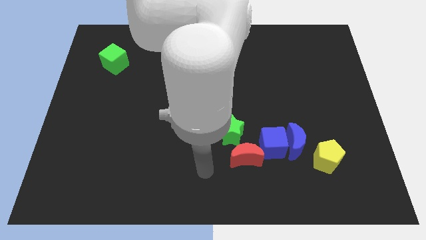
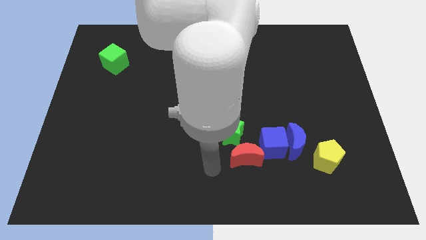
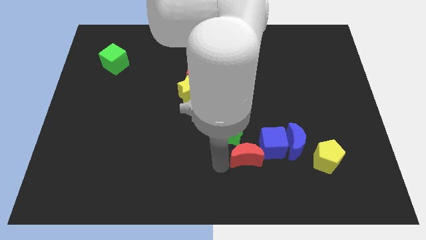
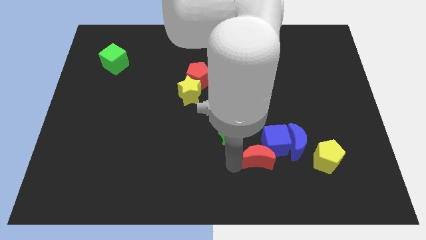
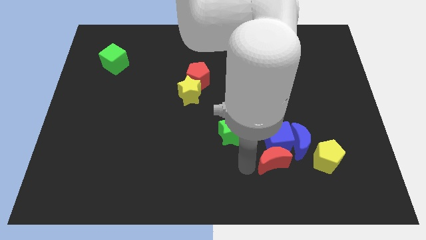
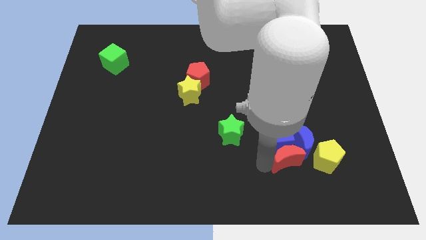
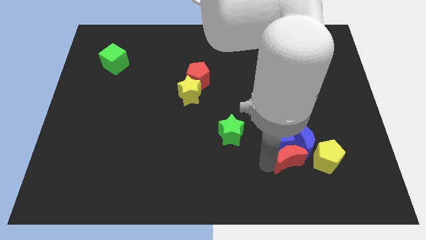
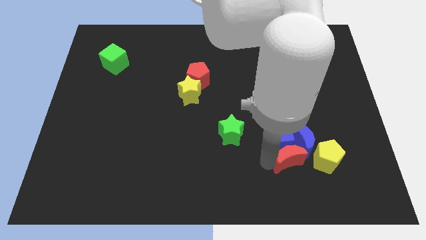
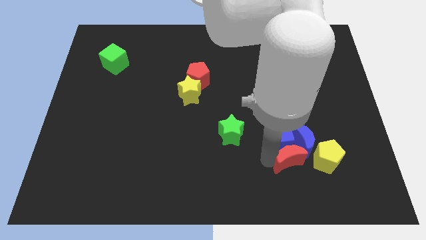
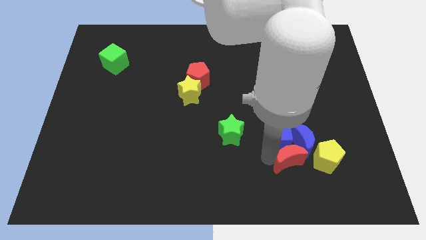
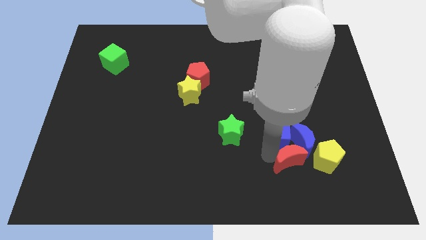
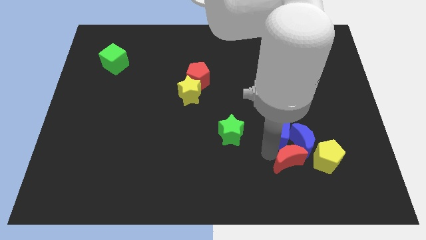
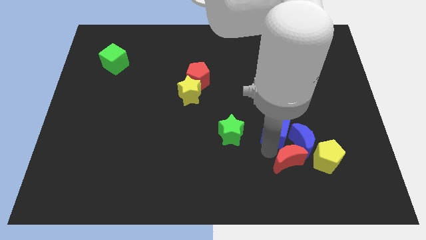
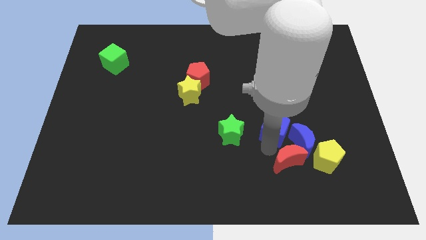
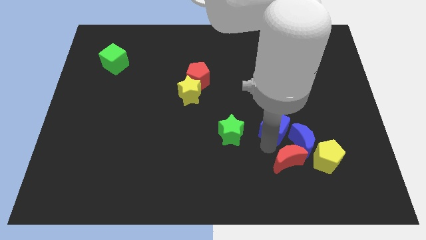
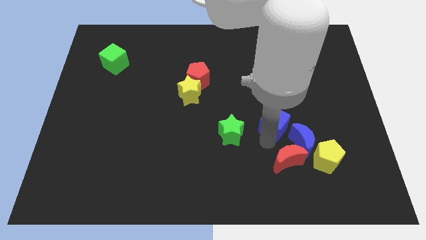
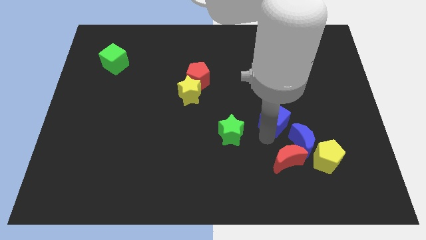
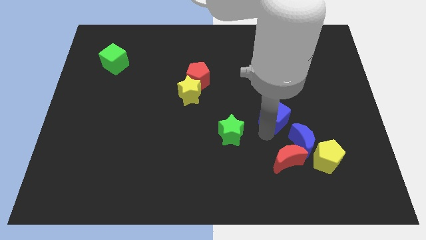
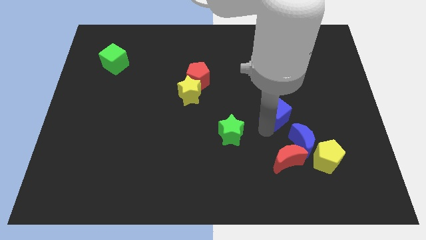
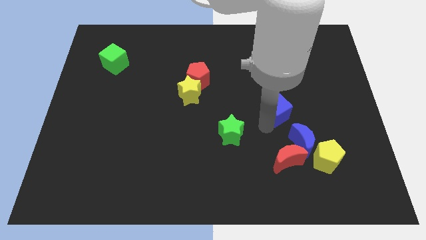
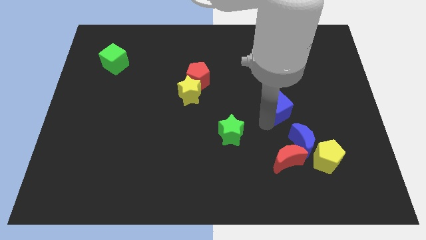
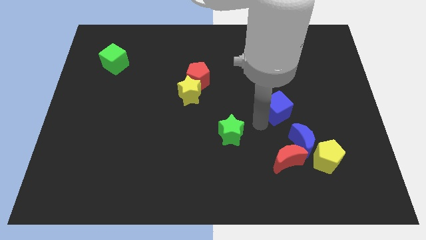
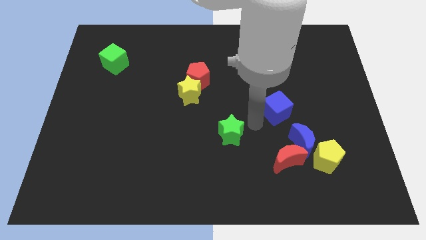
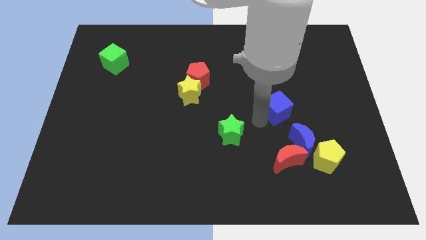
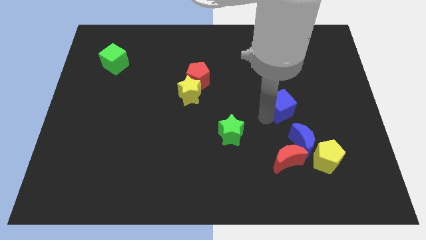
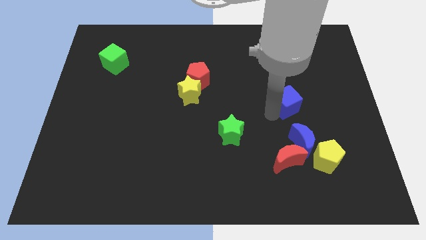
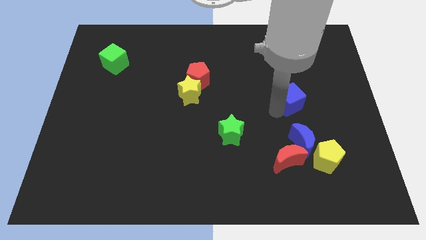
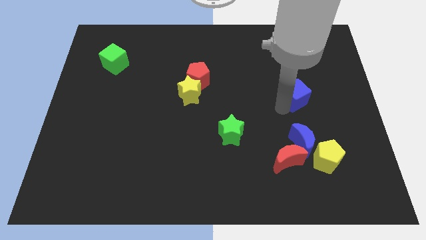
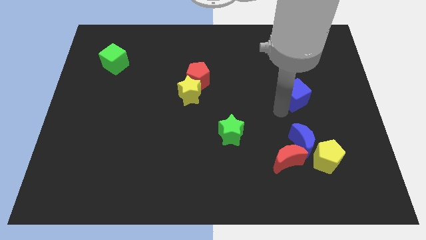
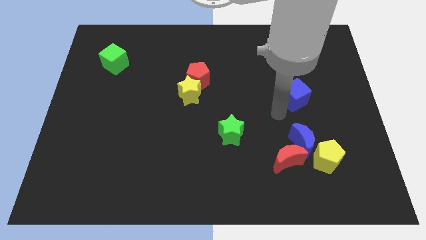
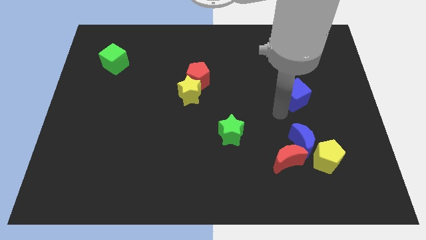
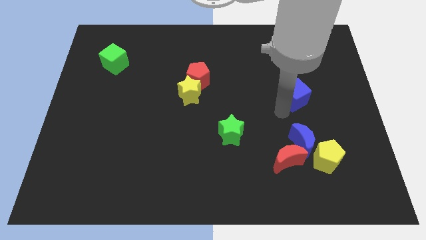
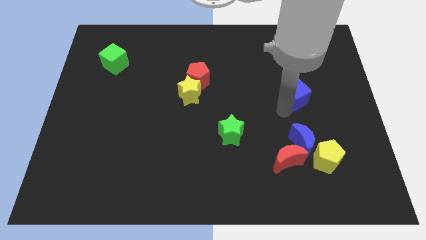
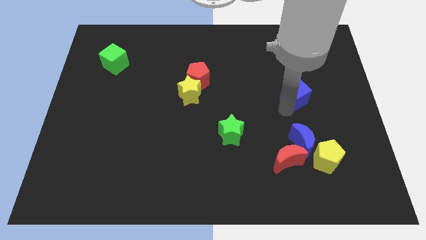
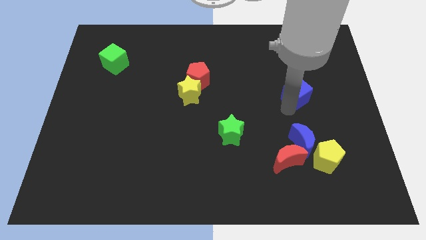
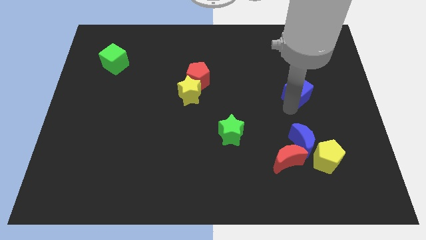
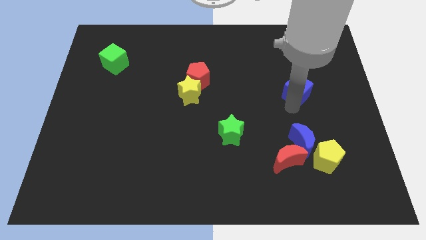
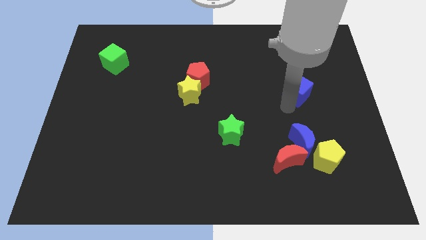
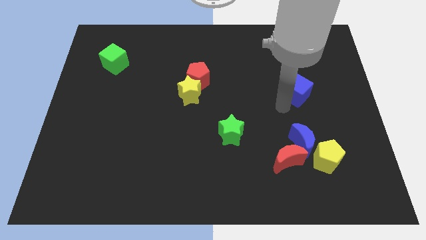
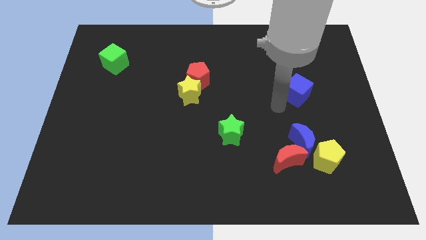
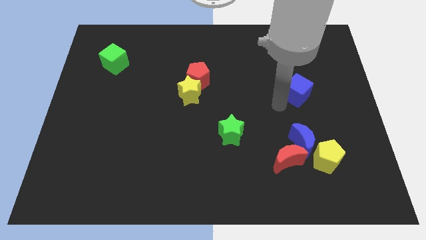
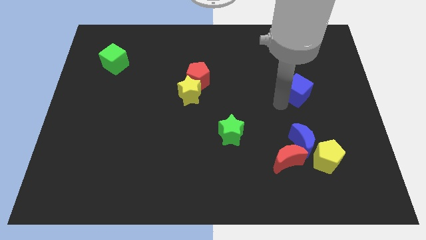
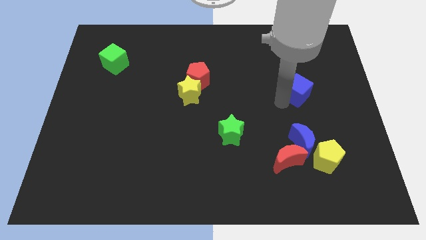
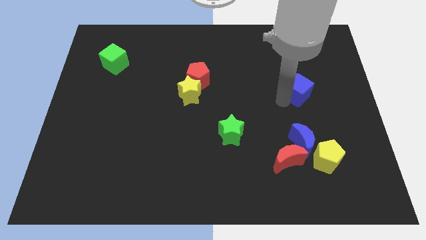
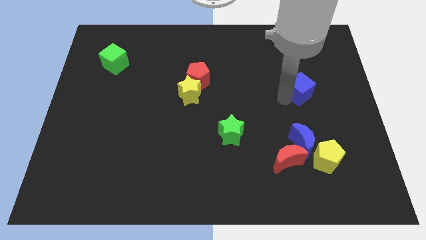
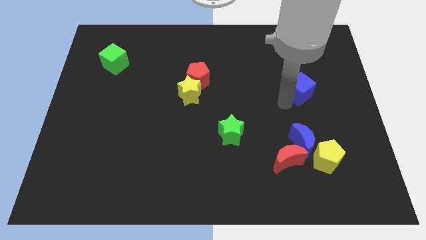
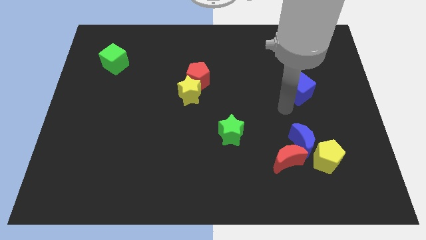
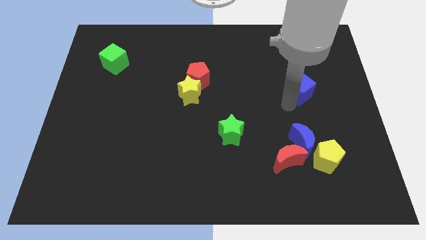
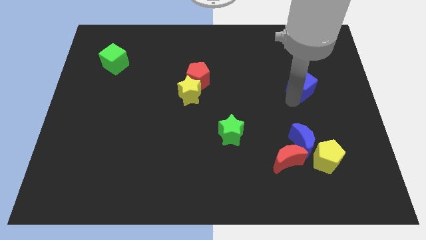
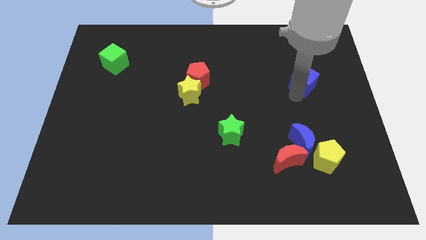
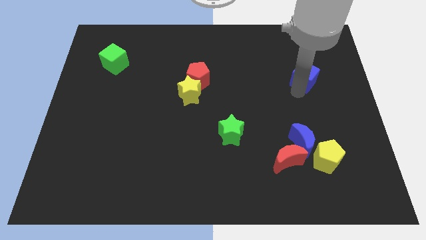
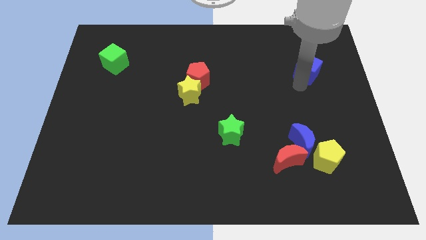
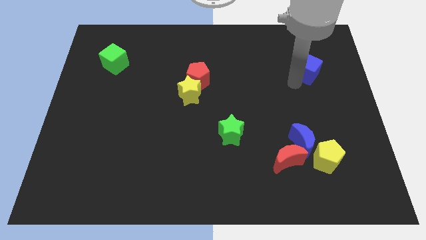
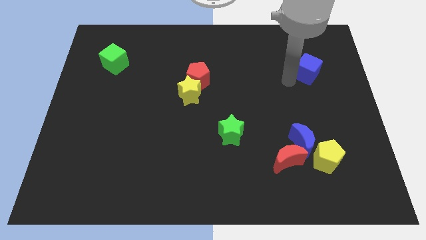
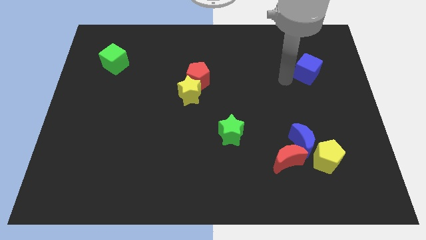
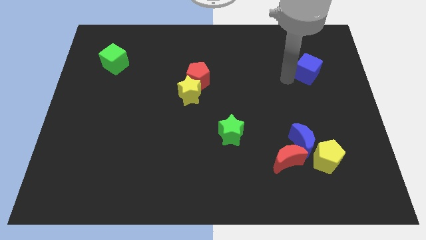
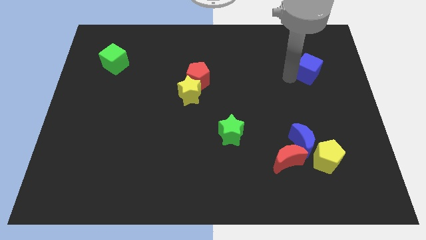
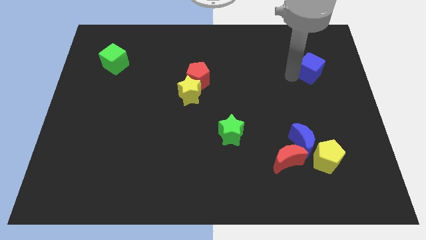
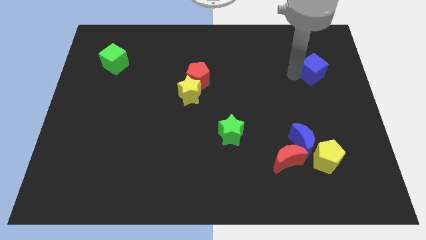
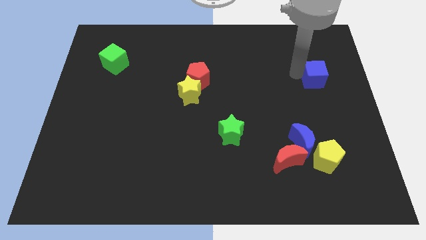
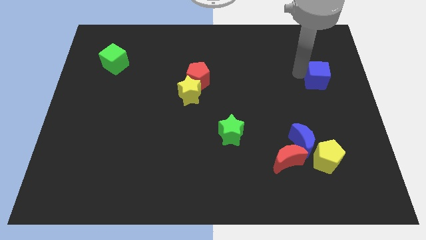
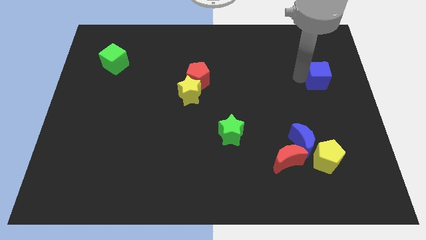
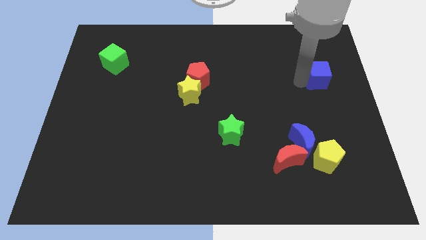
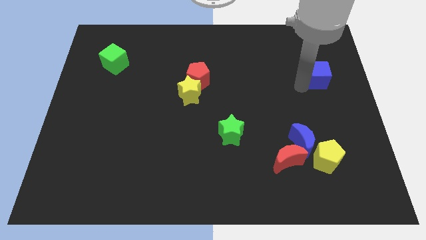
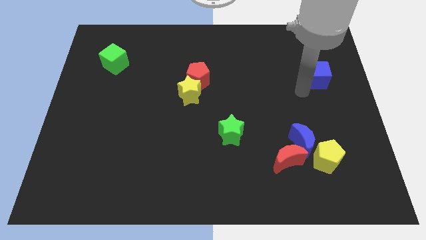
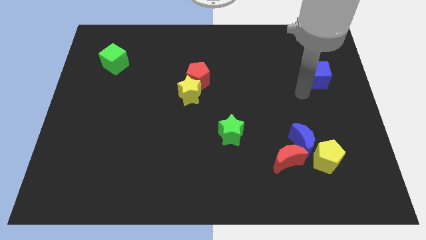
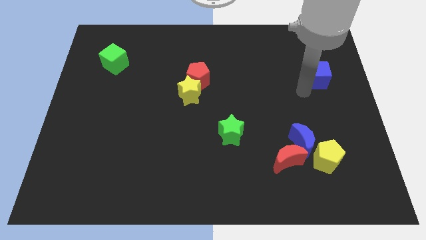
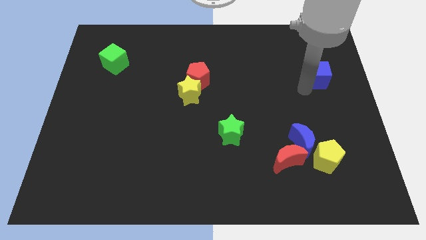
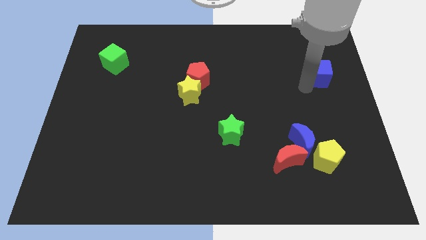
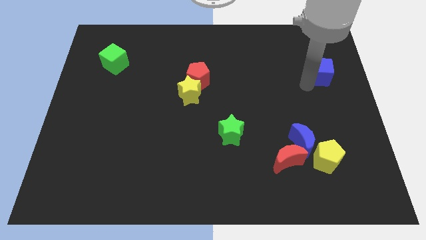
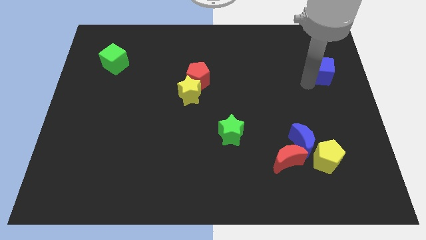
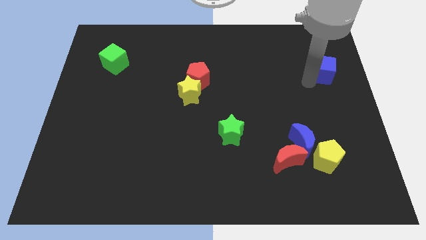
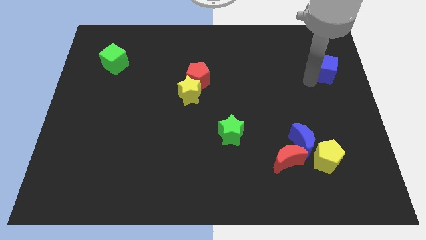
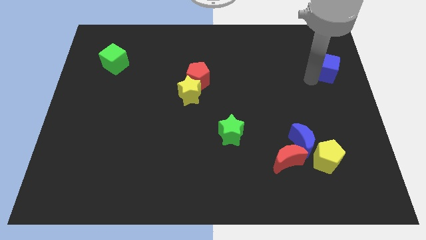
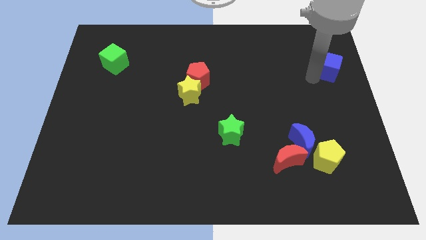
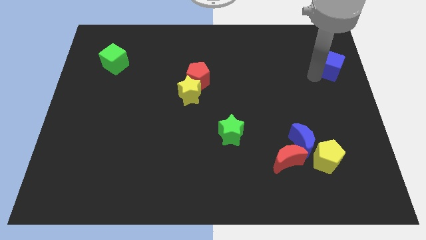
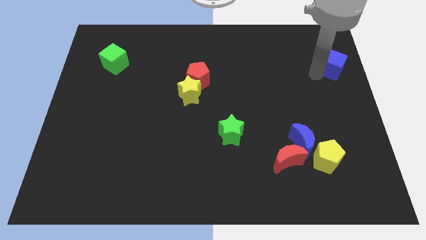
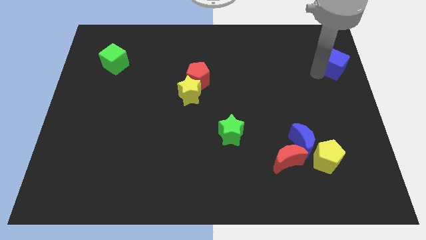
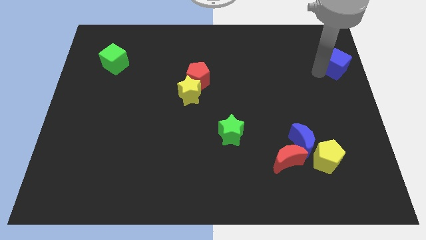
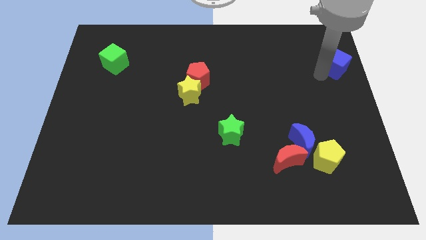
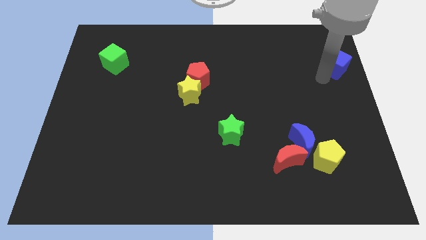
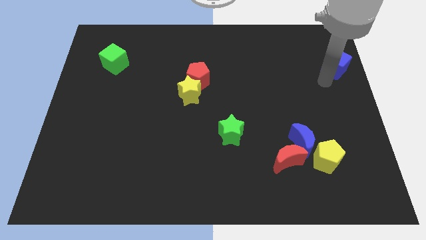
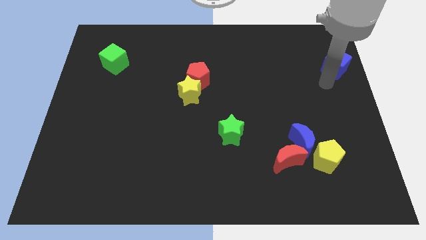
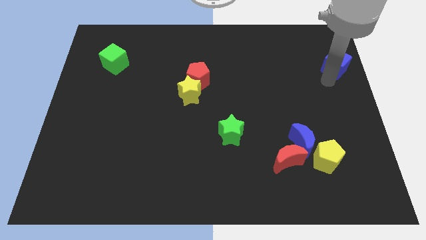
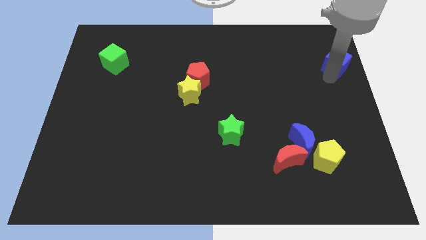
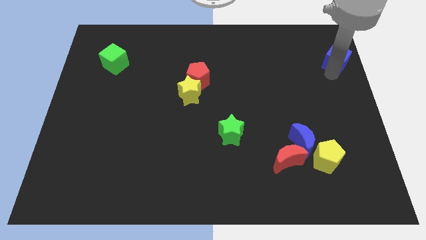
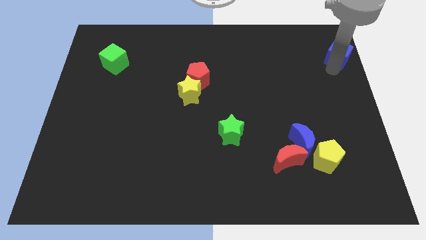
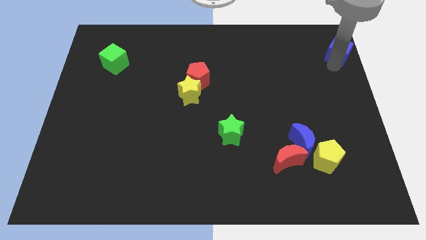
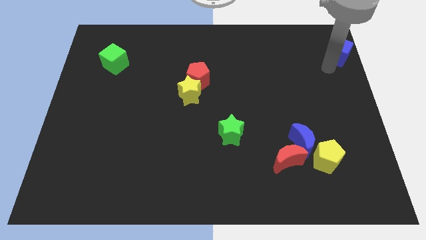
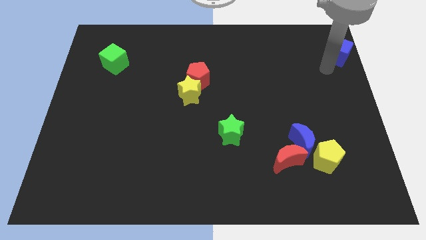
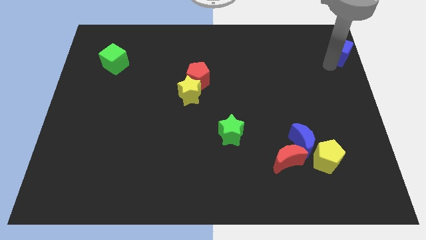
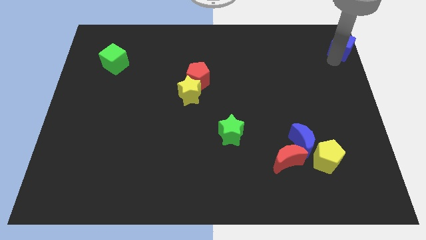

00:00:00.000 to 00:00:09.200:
push the blue cube to the top right
